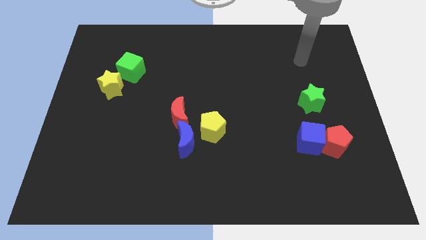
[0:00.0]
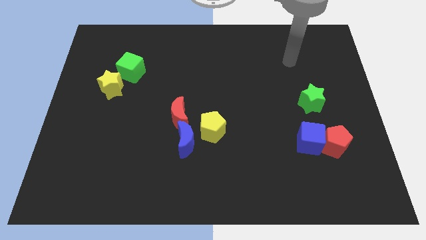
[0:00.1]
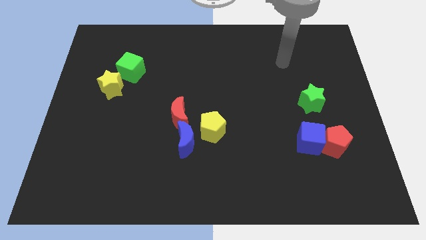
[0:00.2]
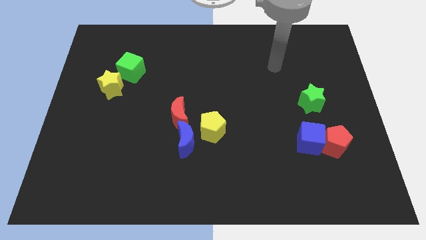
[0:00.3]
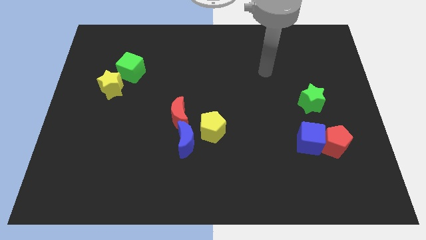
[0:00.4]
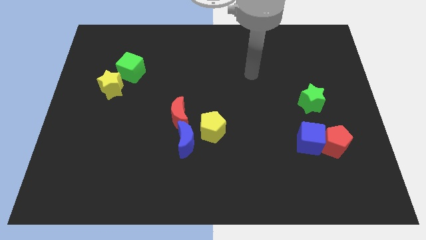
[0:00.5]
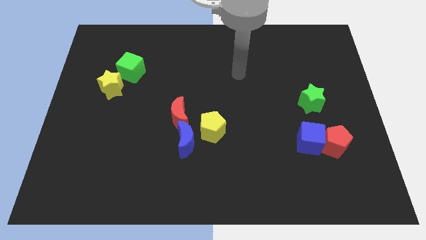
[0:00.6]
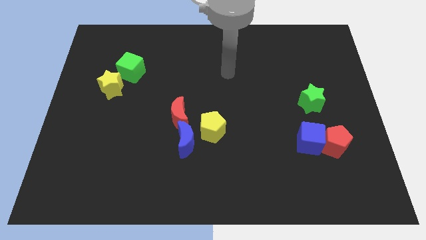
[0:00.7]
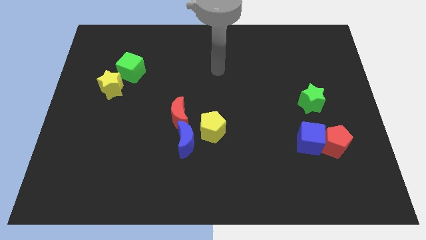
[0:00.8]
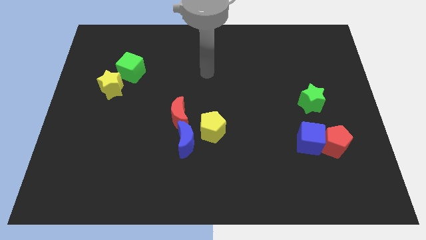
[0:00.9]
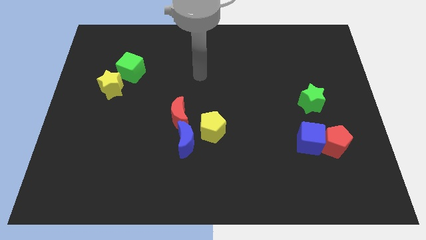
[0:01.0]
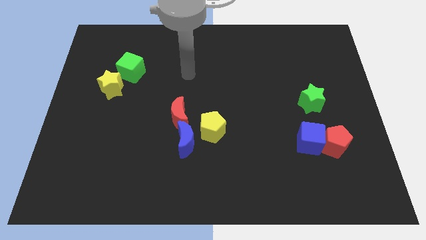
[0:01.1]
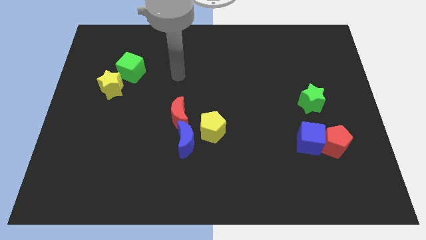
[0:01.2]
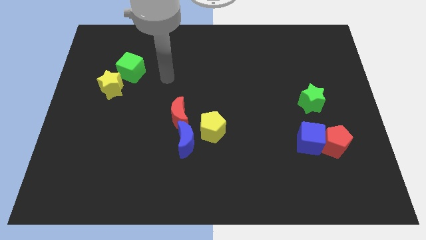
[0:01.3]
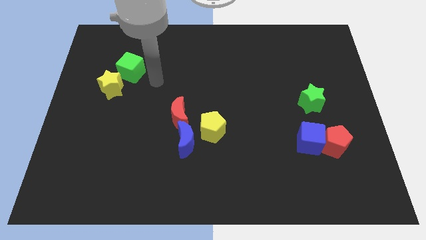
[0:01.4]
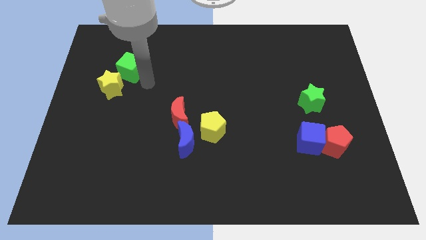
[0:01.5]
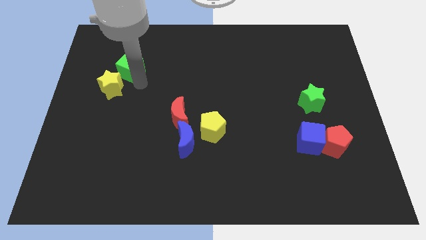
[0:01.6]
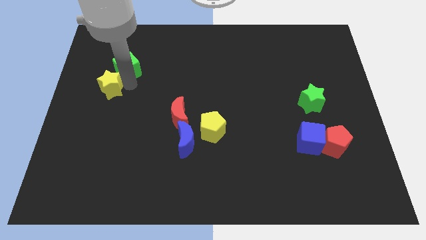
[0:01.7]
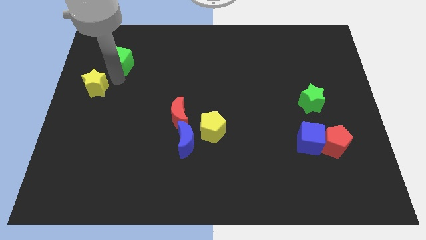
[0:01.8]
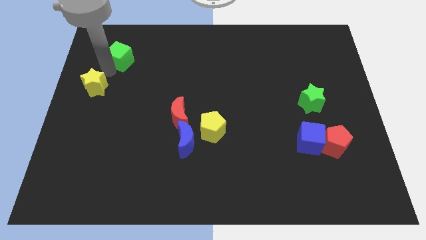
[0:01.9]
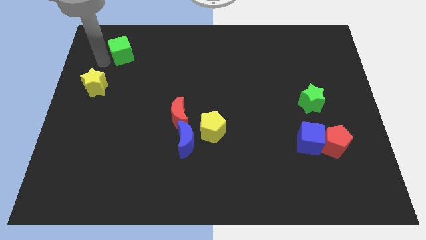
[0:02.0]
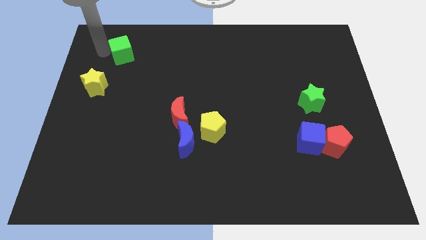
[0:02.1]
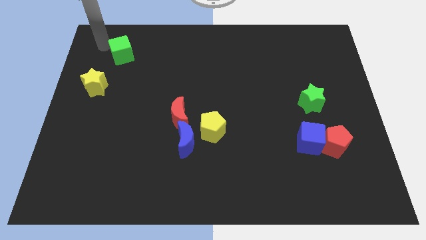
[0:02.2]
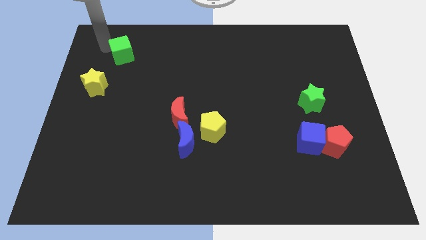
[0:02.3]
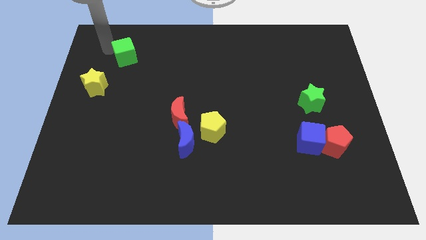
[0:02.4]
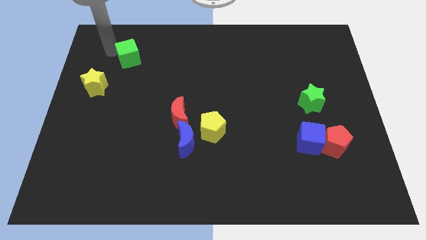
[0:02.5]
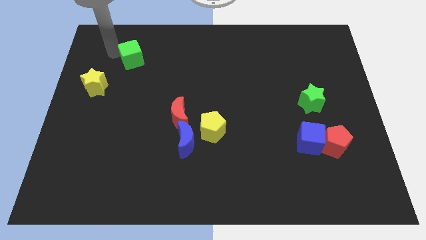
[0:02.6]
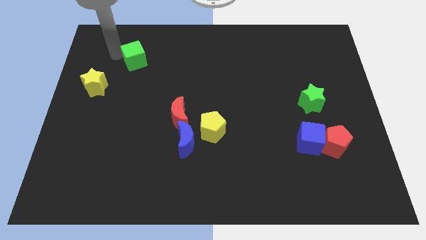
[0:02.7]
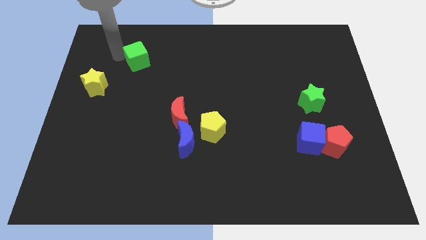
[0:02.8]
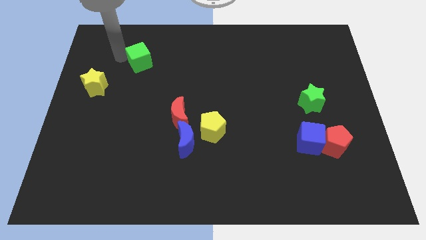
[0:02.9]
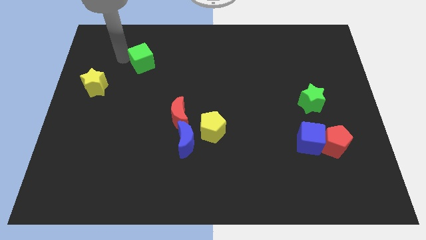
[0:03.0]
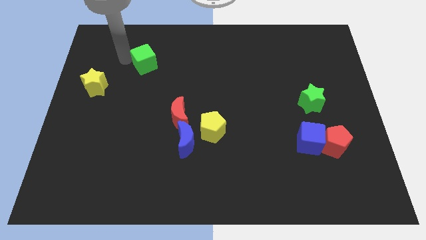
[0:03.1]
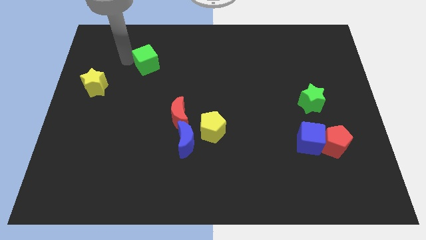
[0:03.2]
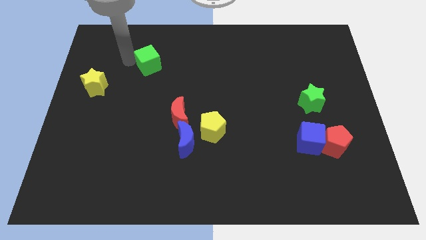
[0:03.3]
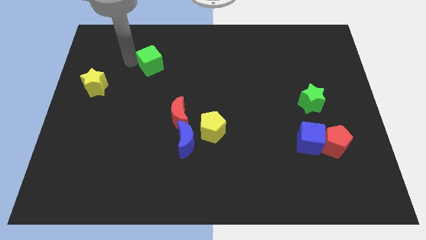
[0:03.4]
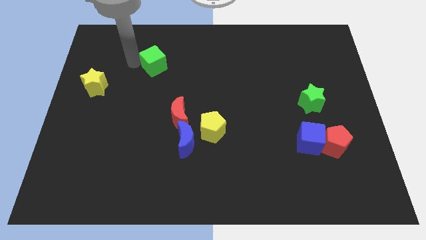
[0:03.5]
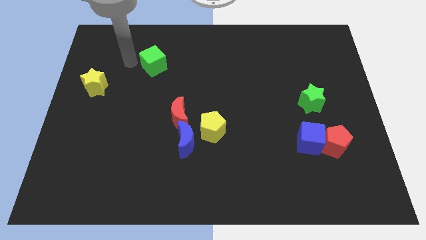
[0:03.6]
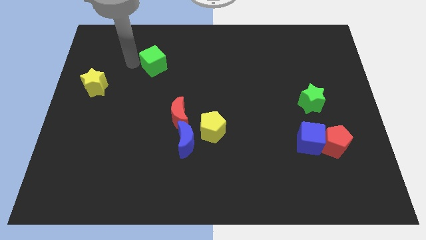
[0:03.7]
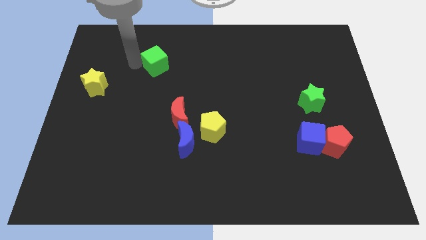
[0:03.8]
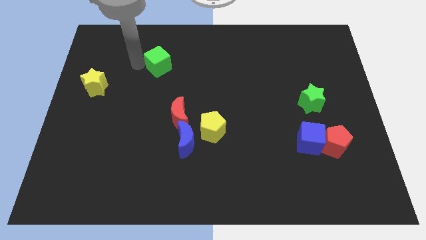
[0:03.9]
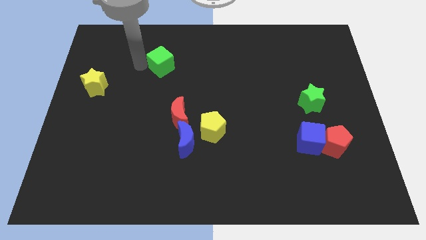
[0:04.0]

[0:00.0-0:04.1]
slightly move the green cube right

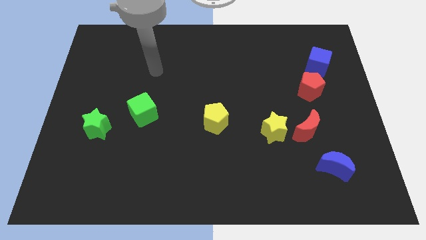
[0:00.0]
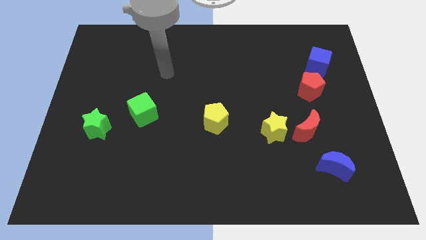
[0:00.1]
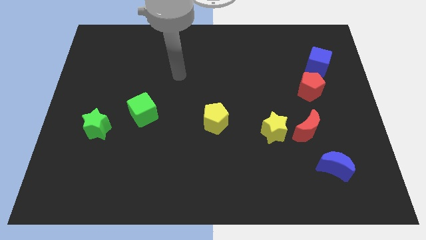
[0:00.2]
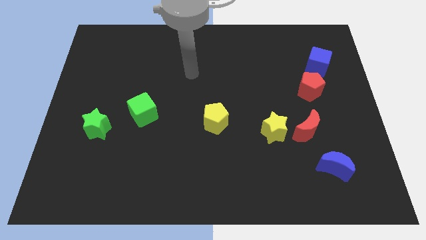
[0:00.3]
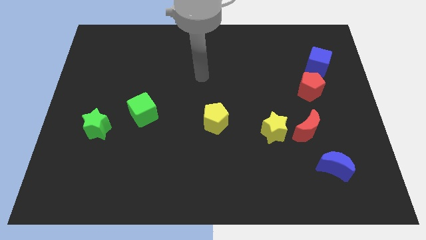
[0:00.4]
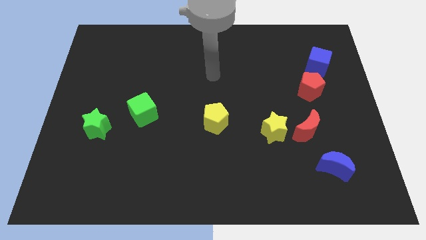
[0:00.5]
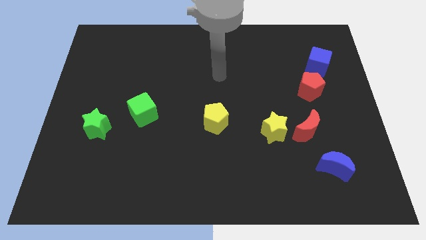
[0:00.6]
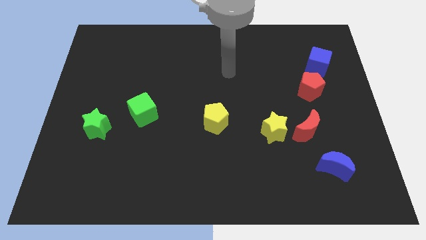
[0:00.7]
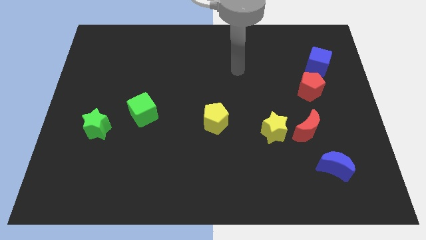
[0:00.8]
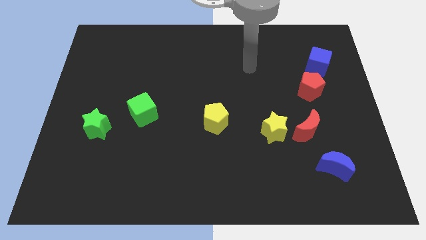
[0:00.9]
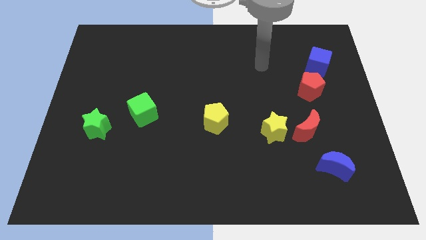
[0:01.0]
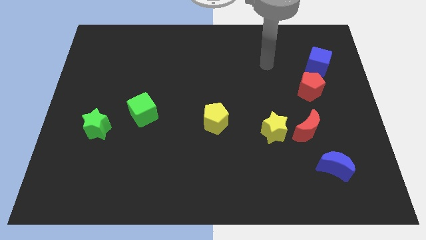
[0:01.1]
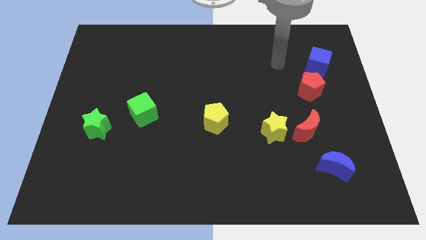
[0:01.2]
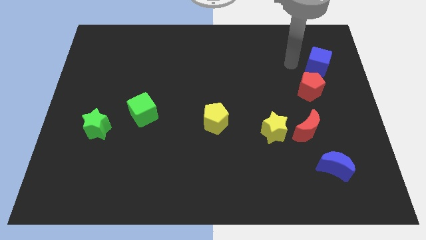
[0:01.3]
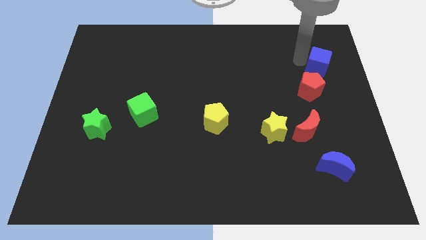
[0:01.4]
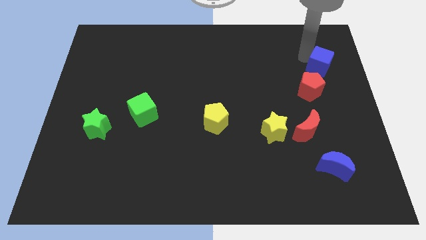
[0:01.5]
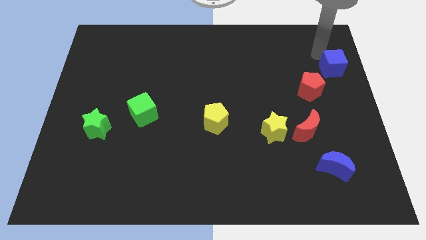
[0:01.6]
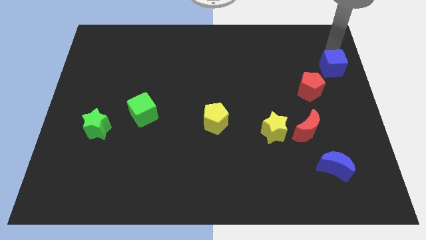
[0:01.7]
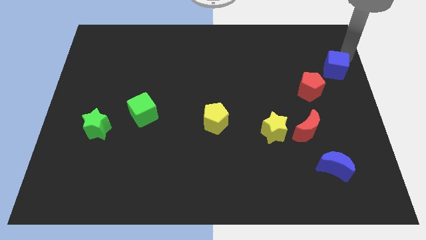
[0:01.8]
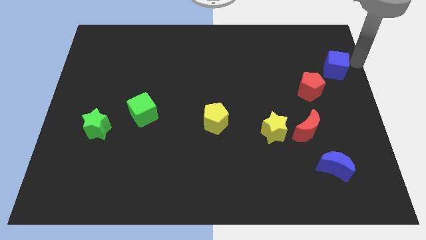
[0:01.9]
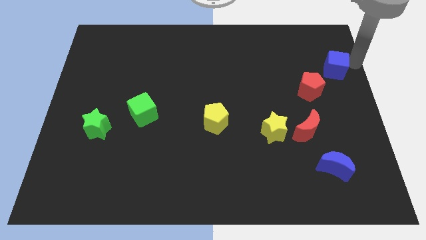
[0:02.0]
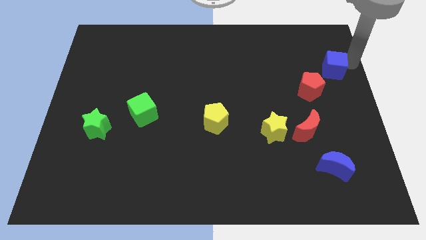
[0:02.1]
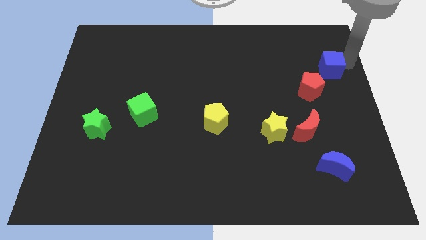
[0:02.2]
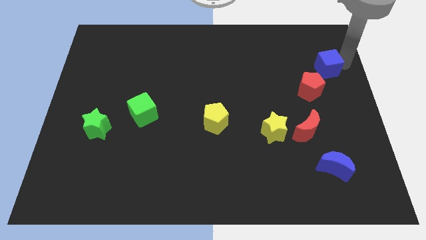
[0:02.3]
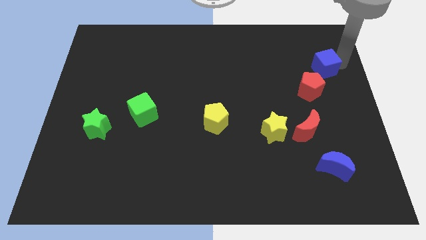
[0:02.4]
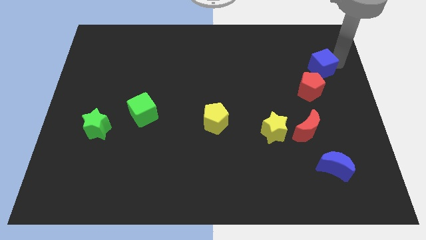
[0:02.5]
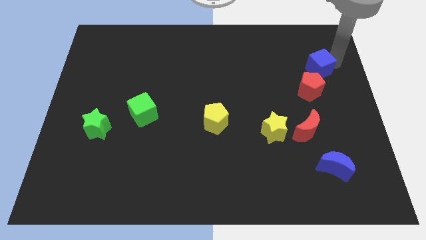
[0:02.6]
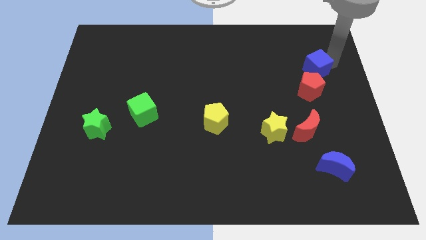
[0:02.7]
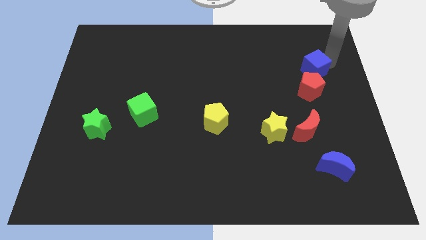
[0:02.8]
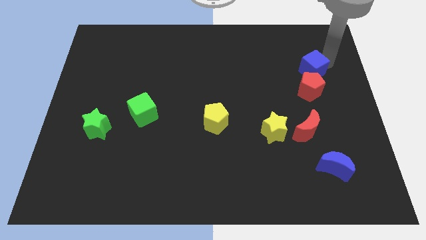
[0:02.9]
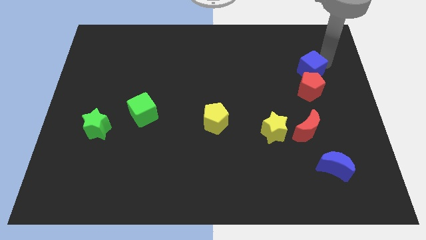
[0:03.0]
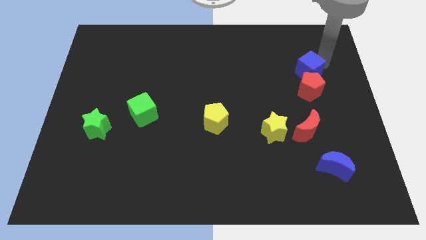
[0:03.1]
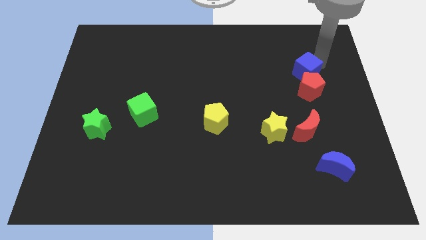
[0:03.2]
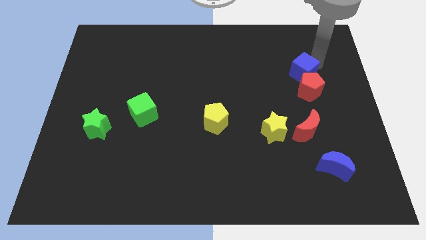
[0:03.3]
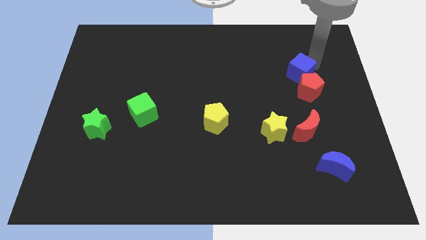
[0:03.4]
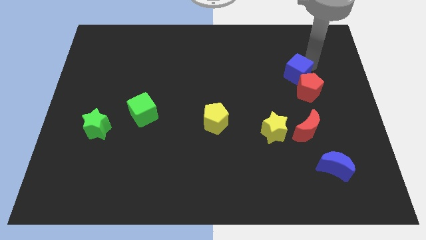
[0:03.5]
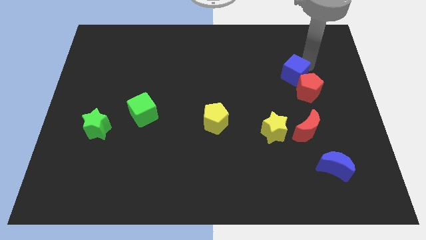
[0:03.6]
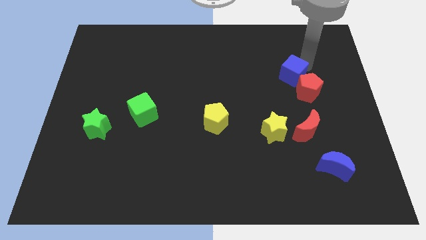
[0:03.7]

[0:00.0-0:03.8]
move the blue cube diagonally down and left a bit

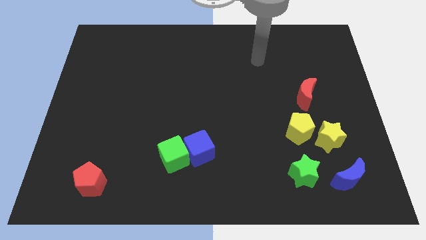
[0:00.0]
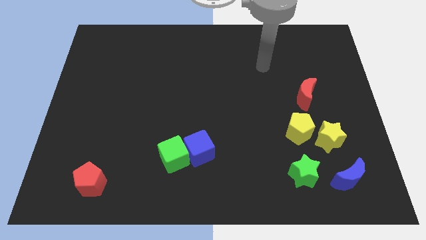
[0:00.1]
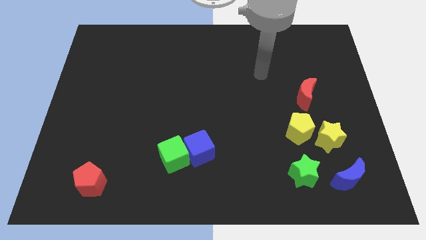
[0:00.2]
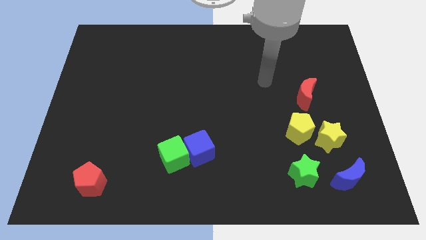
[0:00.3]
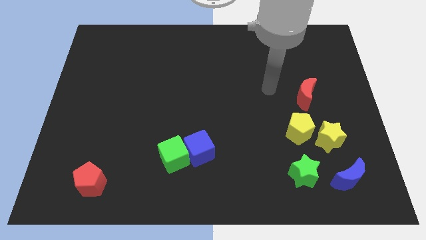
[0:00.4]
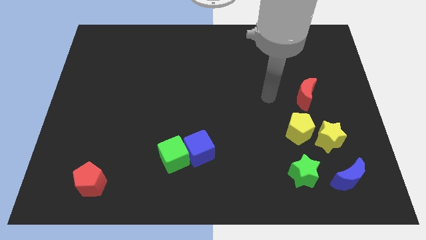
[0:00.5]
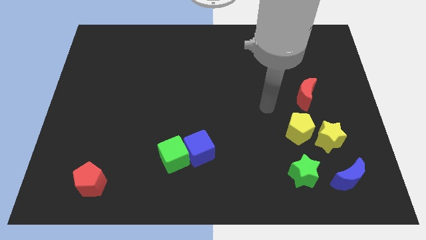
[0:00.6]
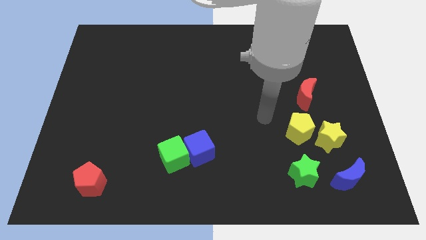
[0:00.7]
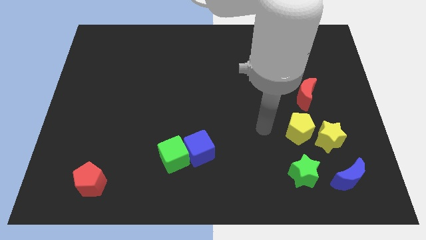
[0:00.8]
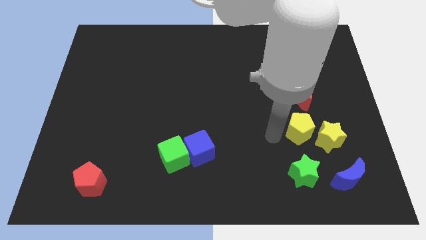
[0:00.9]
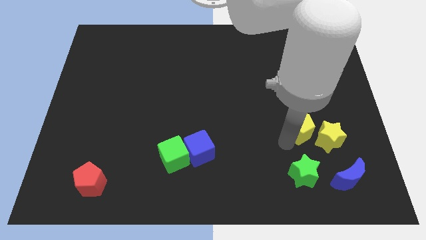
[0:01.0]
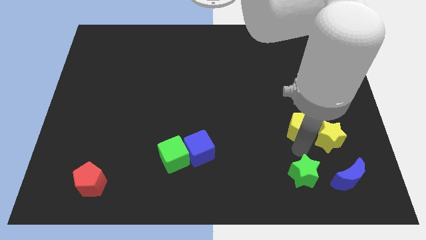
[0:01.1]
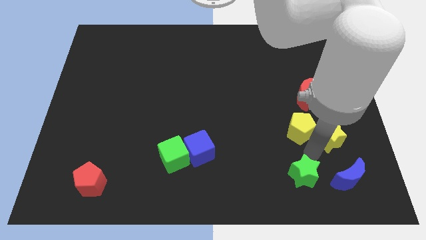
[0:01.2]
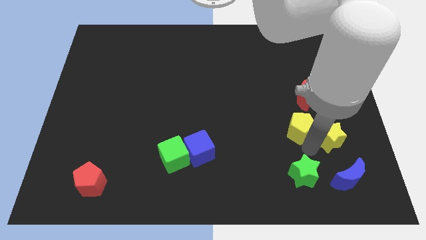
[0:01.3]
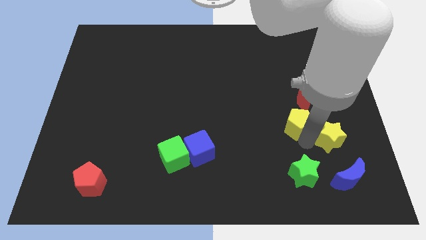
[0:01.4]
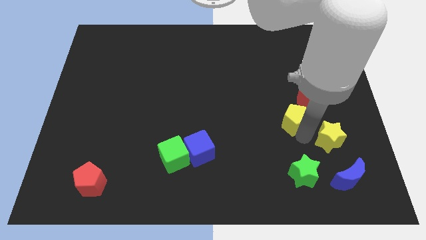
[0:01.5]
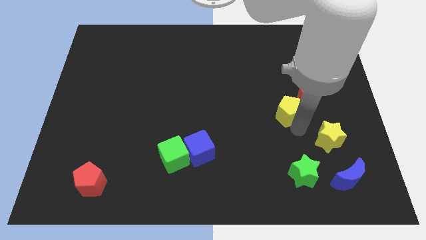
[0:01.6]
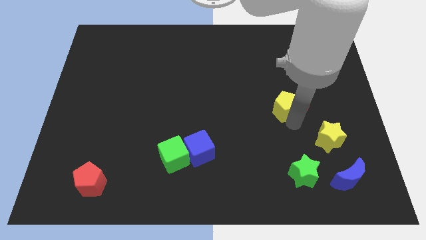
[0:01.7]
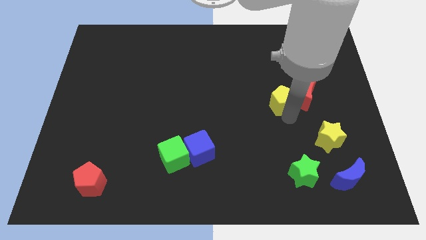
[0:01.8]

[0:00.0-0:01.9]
slightly move the yellow pentagon upwards
